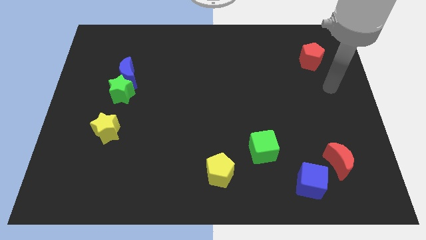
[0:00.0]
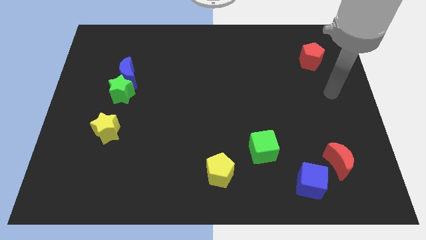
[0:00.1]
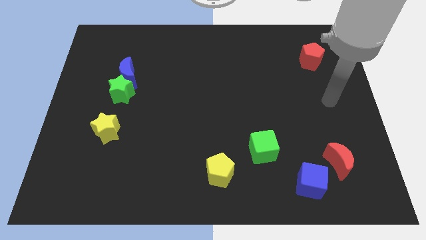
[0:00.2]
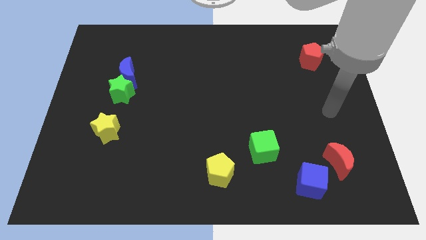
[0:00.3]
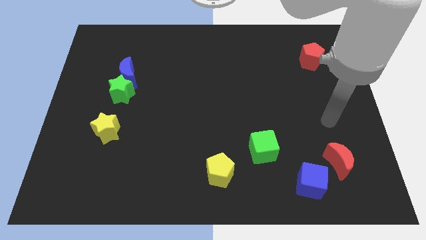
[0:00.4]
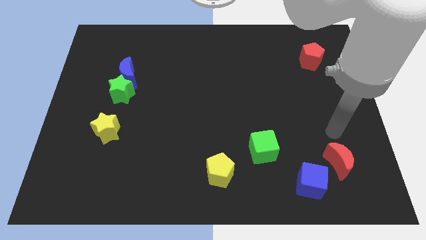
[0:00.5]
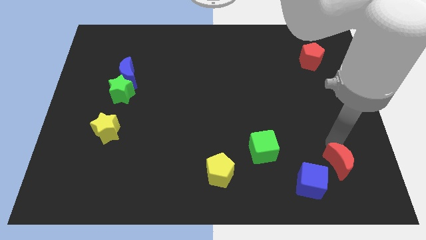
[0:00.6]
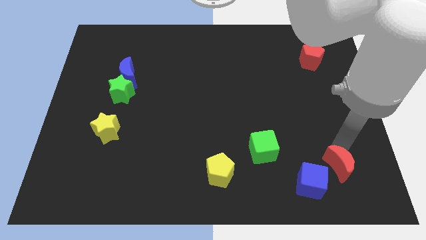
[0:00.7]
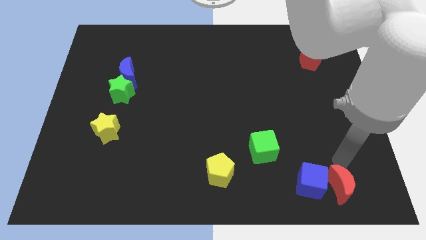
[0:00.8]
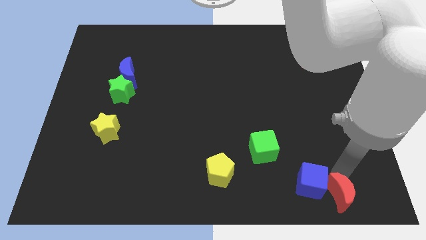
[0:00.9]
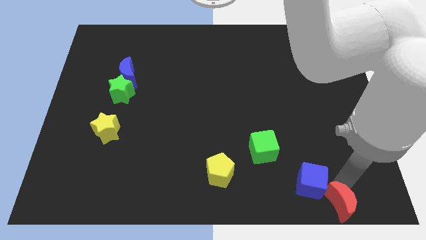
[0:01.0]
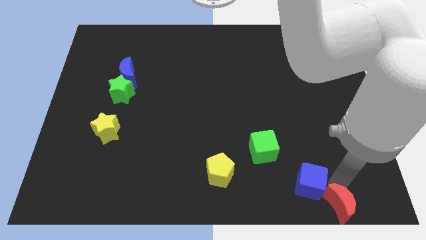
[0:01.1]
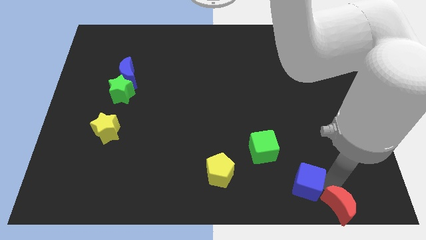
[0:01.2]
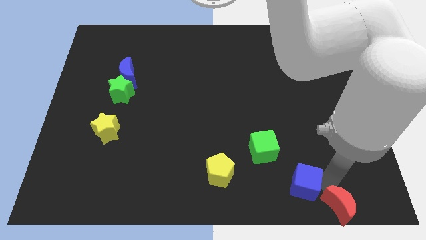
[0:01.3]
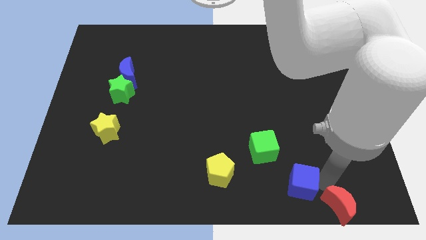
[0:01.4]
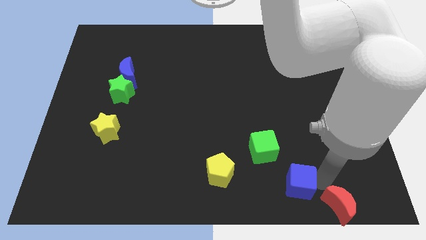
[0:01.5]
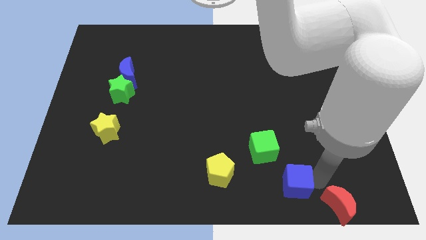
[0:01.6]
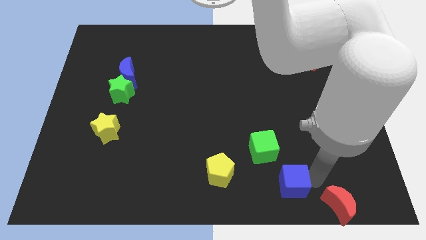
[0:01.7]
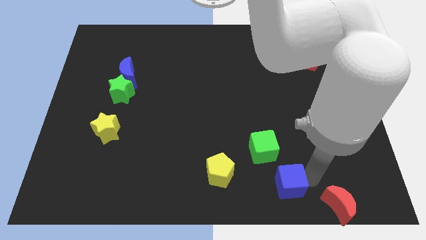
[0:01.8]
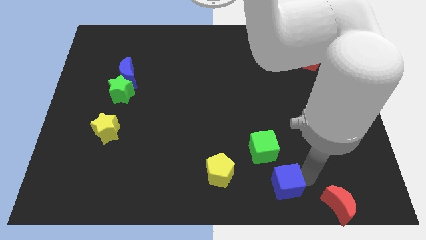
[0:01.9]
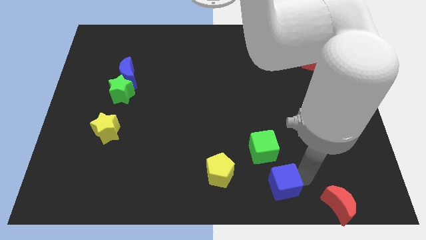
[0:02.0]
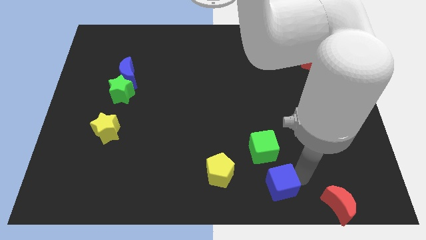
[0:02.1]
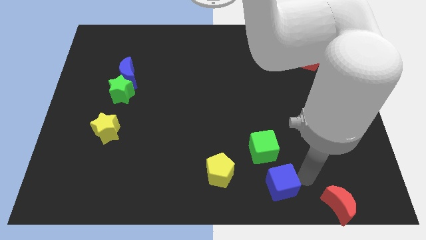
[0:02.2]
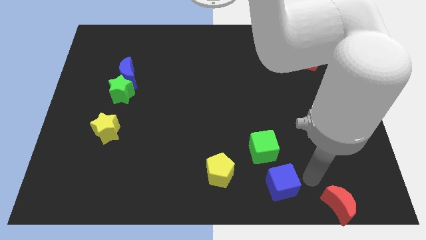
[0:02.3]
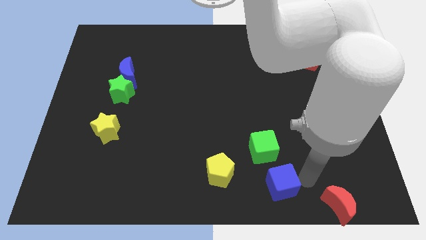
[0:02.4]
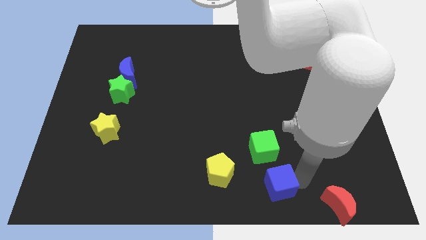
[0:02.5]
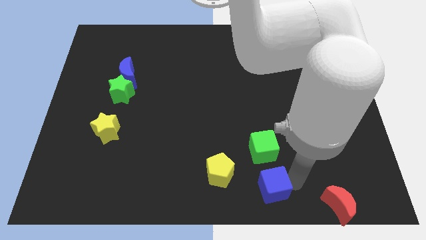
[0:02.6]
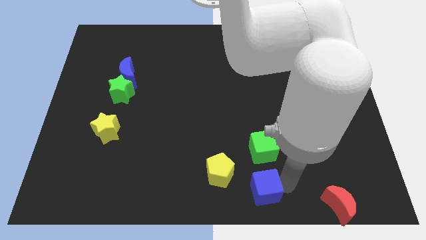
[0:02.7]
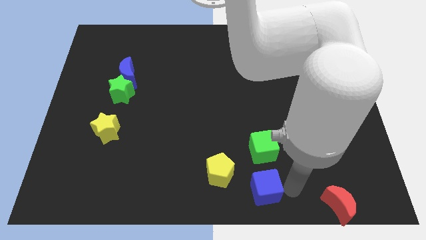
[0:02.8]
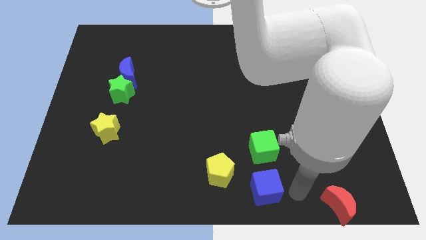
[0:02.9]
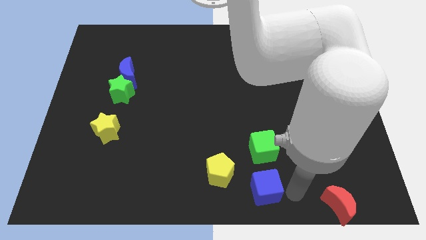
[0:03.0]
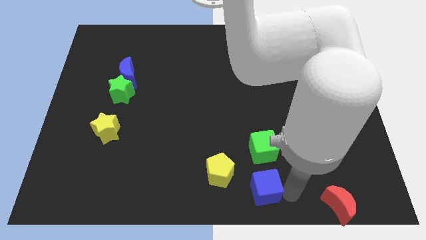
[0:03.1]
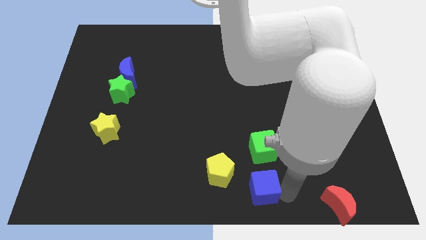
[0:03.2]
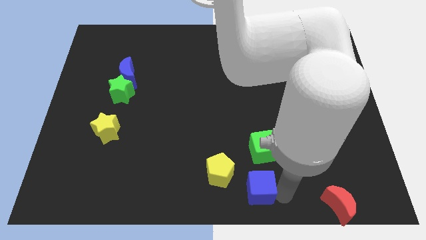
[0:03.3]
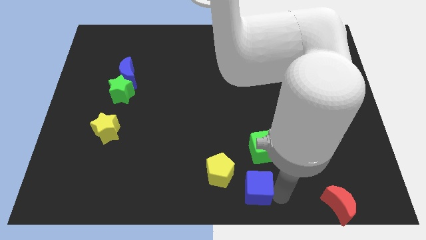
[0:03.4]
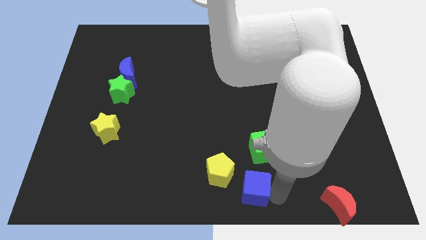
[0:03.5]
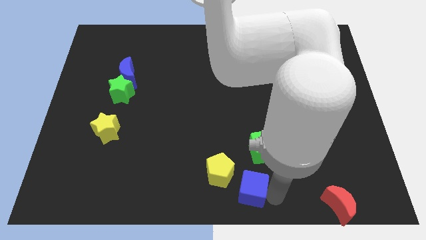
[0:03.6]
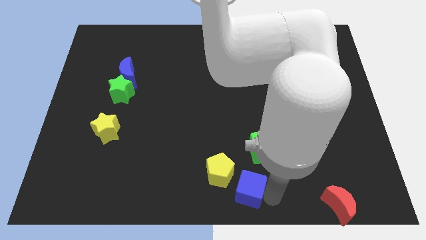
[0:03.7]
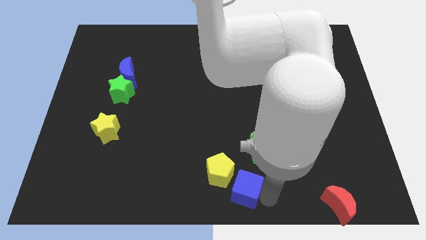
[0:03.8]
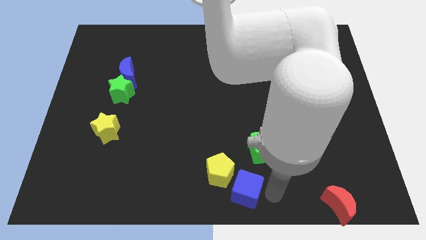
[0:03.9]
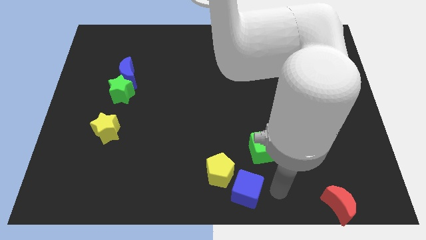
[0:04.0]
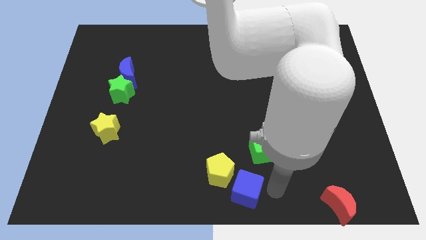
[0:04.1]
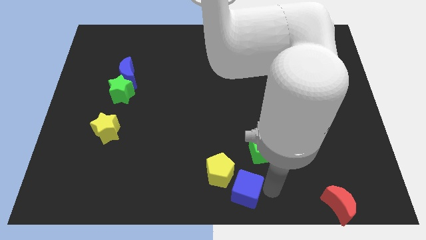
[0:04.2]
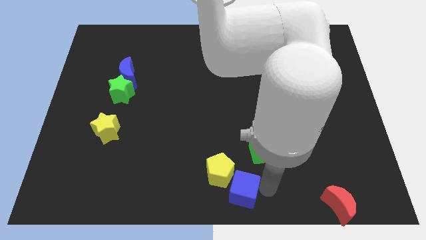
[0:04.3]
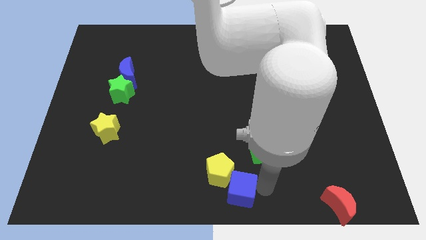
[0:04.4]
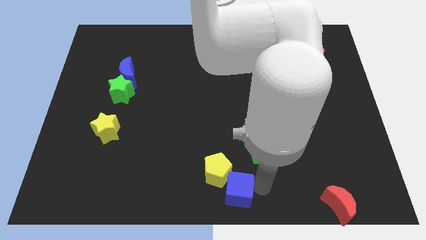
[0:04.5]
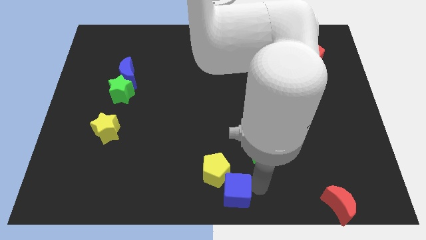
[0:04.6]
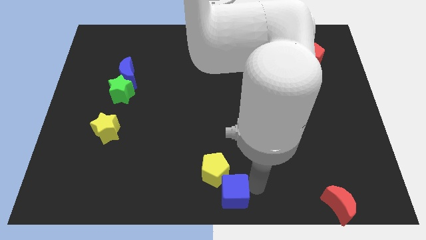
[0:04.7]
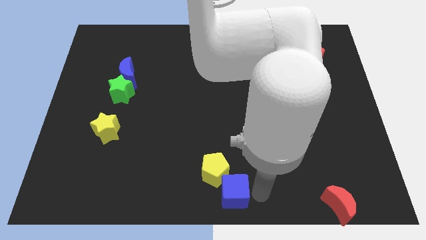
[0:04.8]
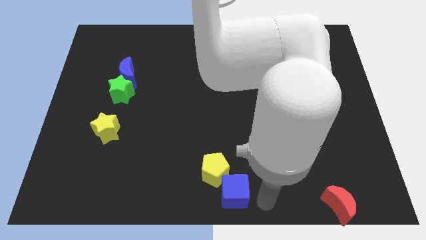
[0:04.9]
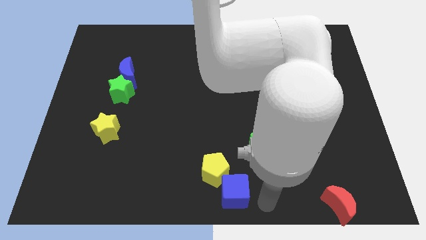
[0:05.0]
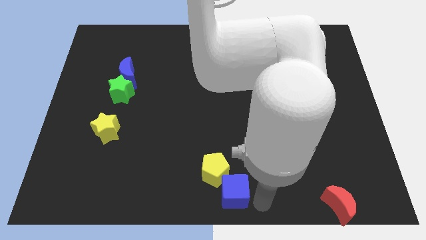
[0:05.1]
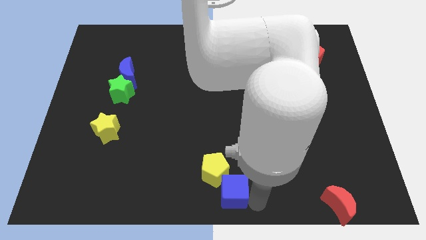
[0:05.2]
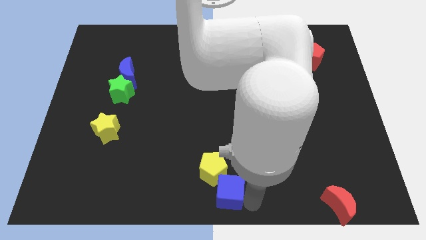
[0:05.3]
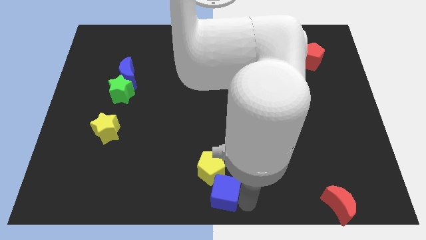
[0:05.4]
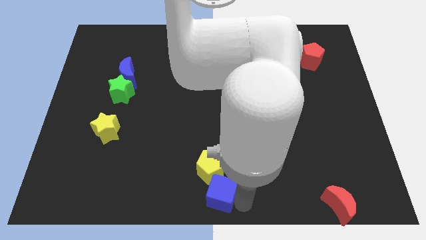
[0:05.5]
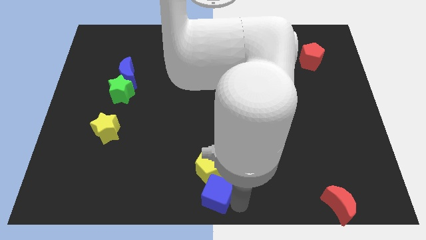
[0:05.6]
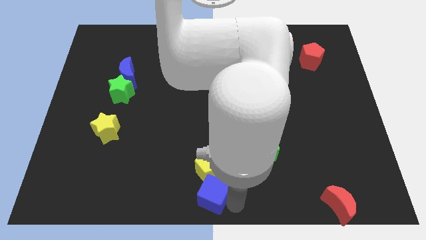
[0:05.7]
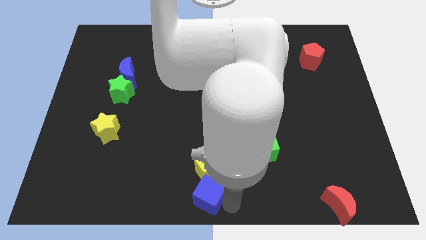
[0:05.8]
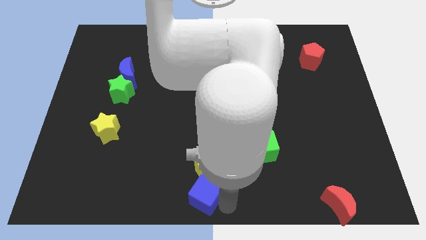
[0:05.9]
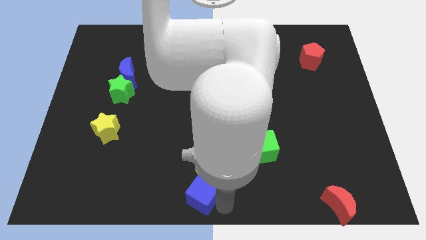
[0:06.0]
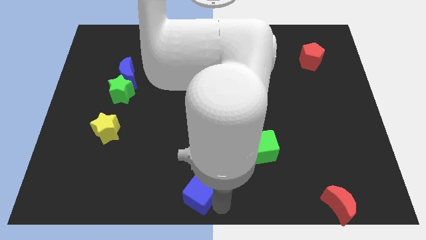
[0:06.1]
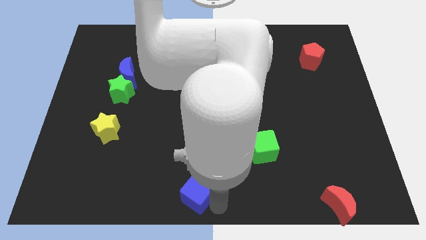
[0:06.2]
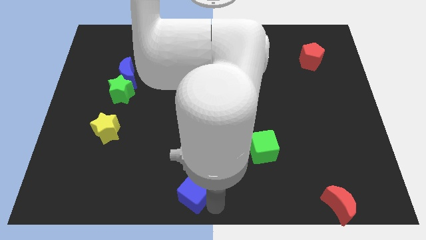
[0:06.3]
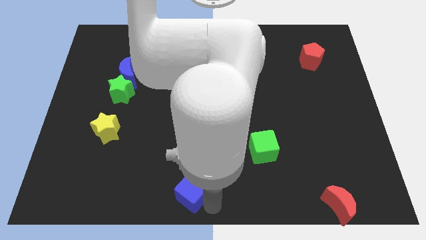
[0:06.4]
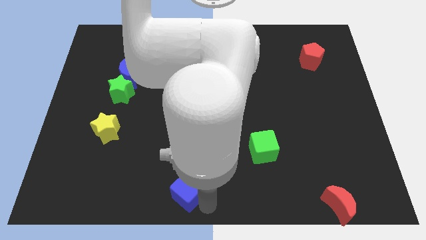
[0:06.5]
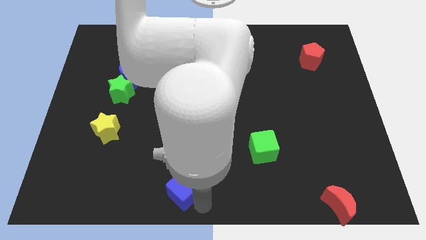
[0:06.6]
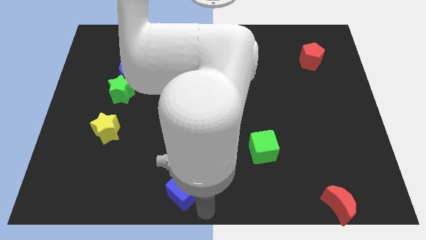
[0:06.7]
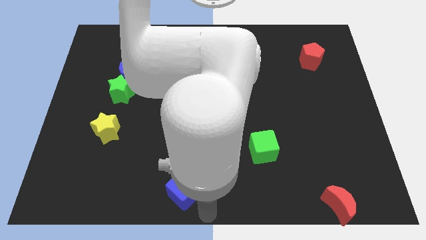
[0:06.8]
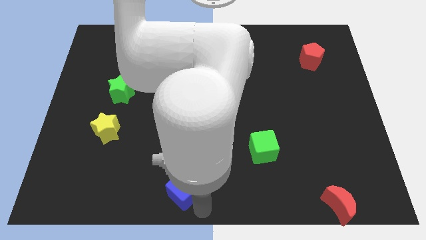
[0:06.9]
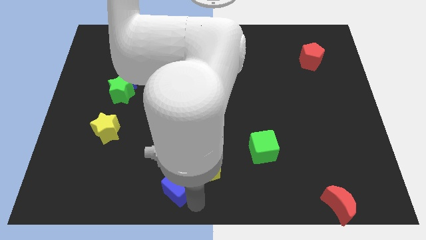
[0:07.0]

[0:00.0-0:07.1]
push the blue cube to the left side of the yellow pentagon

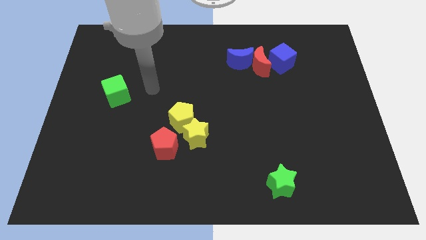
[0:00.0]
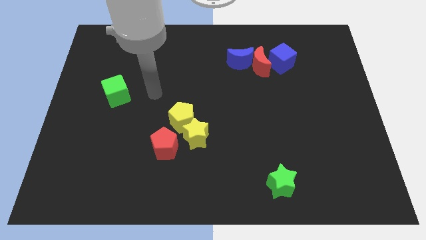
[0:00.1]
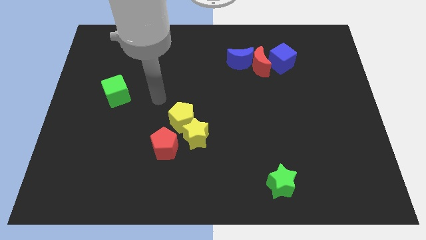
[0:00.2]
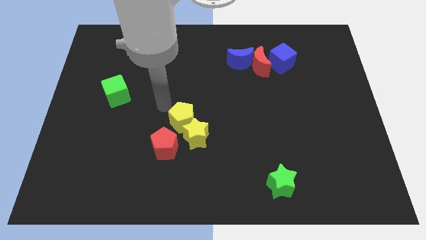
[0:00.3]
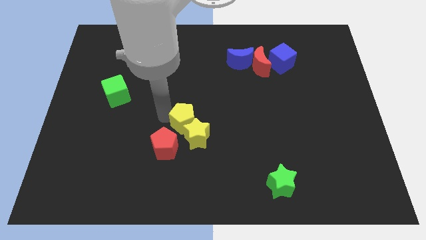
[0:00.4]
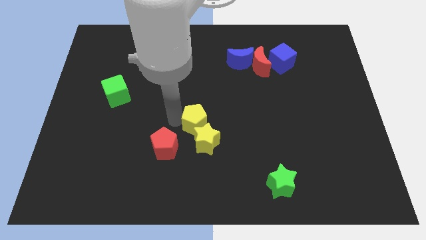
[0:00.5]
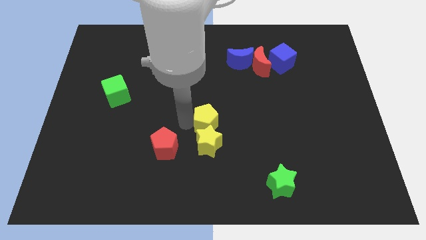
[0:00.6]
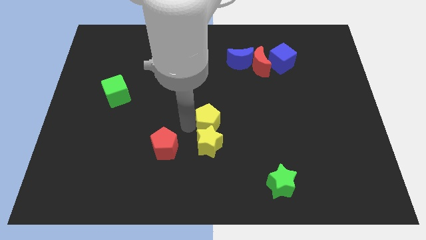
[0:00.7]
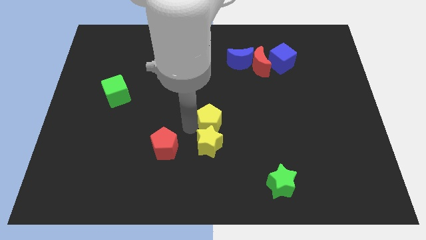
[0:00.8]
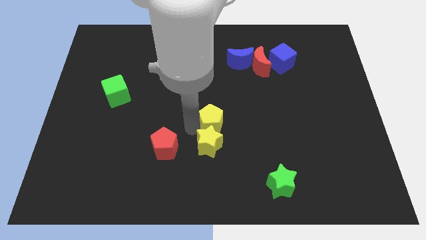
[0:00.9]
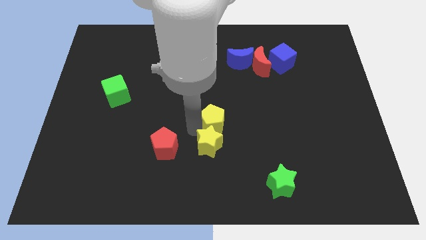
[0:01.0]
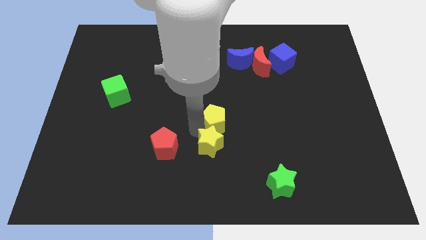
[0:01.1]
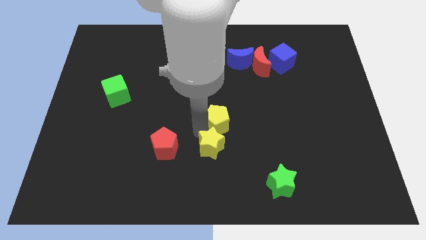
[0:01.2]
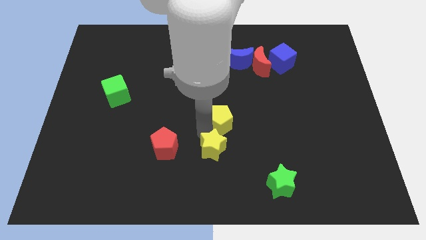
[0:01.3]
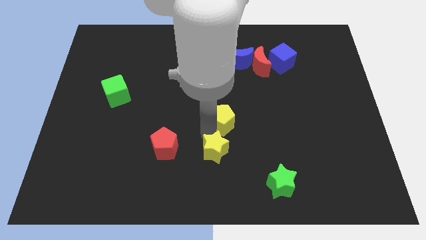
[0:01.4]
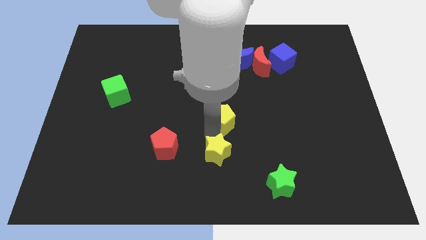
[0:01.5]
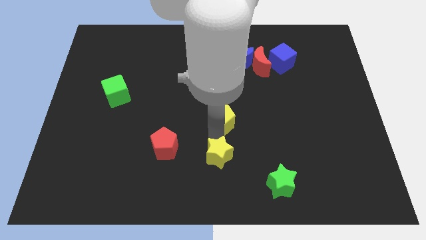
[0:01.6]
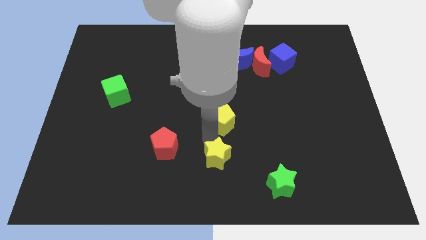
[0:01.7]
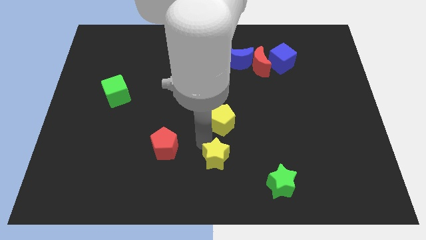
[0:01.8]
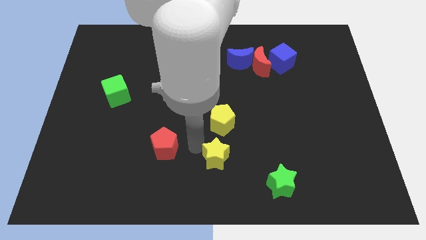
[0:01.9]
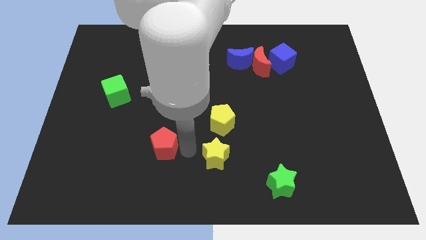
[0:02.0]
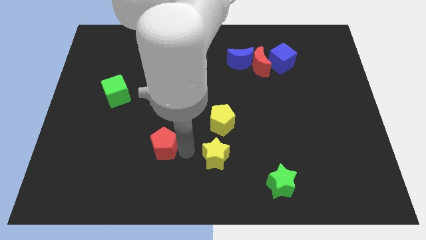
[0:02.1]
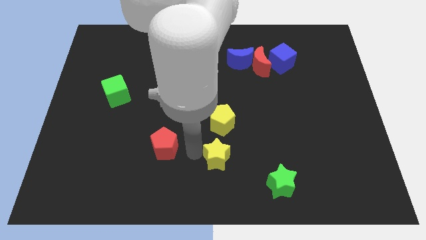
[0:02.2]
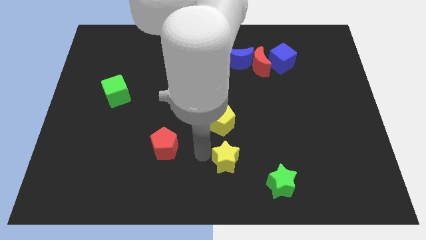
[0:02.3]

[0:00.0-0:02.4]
move the yellow star to the top left side of the green star
